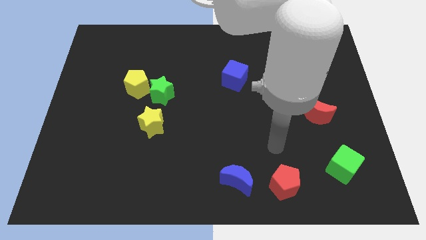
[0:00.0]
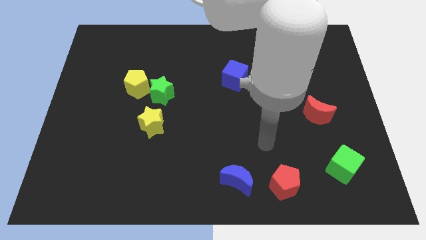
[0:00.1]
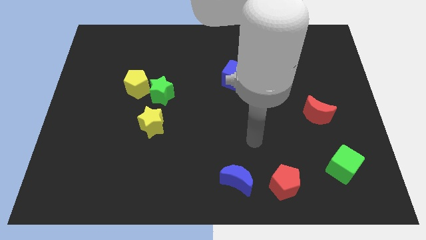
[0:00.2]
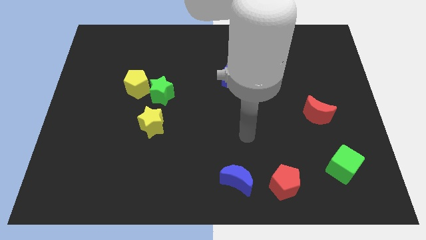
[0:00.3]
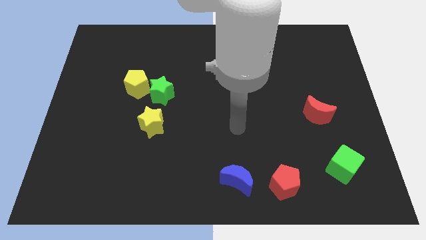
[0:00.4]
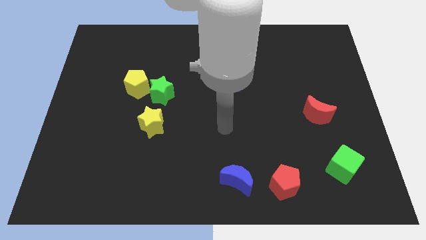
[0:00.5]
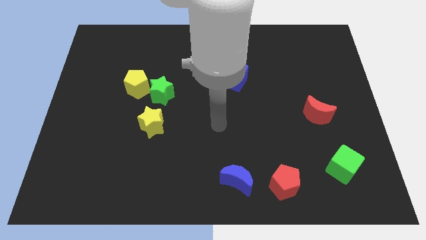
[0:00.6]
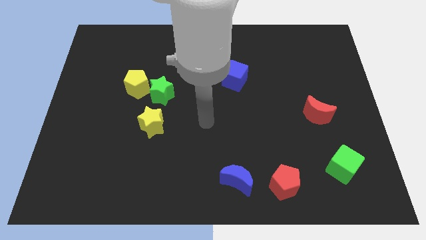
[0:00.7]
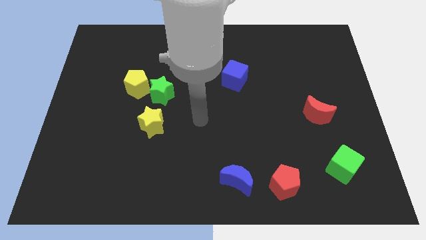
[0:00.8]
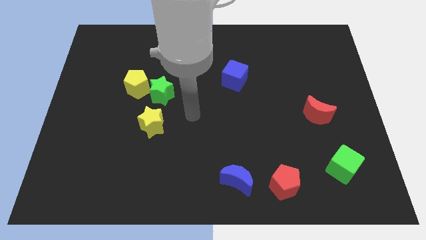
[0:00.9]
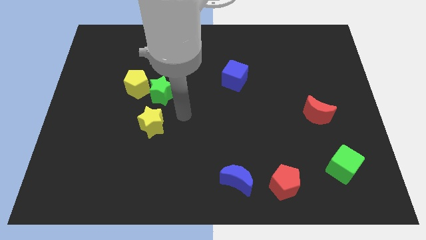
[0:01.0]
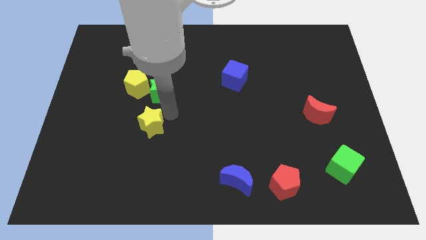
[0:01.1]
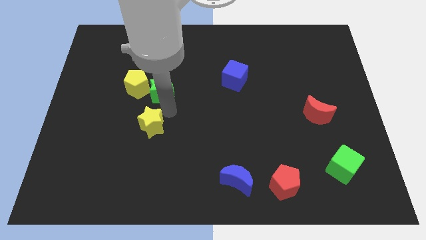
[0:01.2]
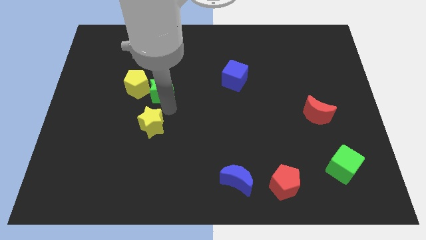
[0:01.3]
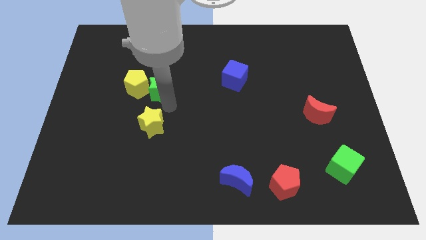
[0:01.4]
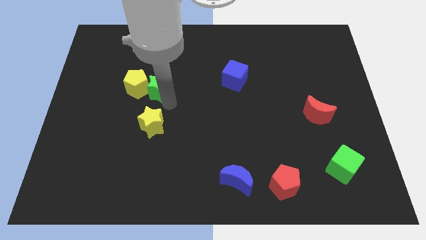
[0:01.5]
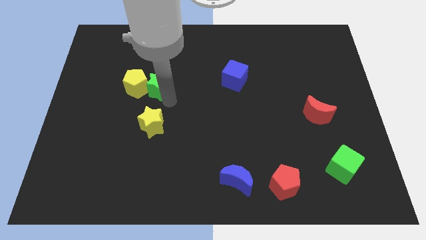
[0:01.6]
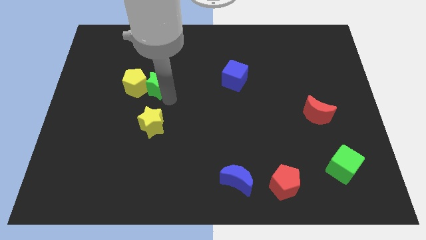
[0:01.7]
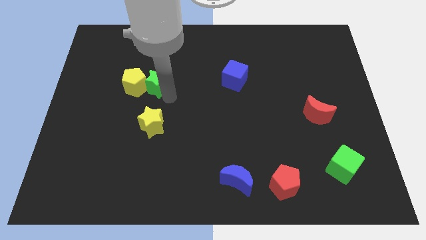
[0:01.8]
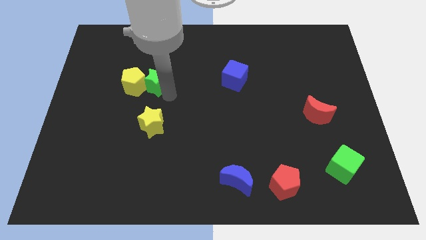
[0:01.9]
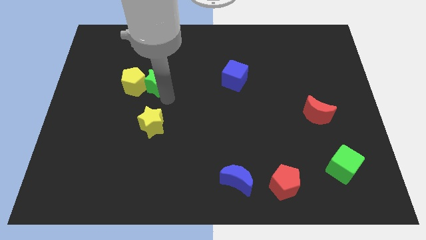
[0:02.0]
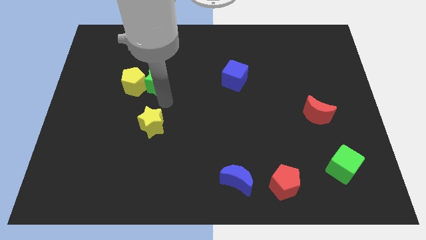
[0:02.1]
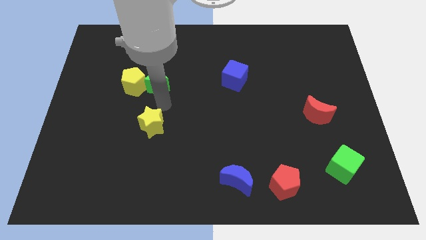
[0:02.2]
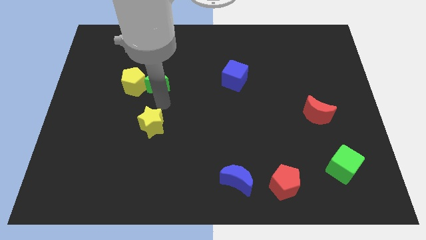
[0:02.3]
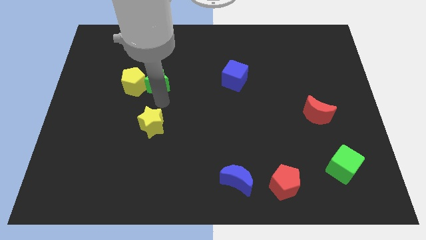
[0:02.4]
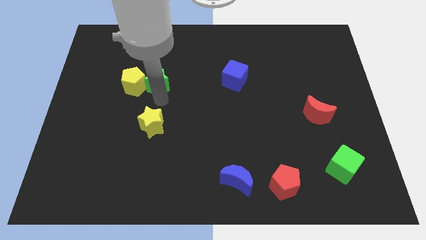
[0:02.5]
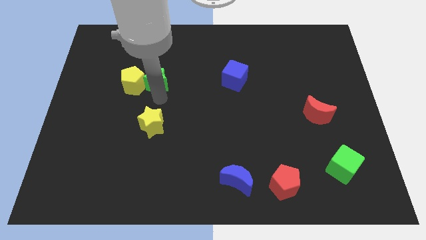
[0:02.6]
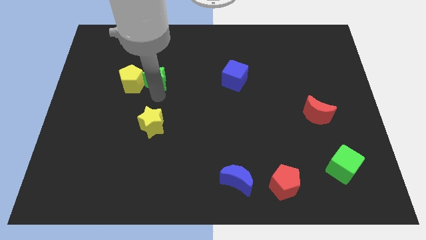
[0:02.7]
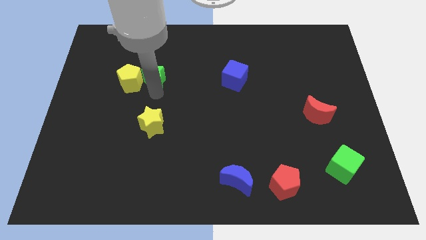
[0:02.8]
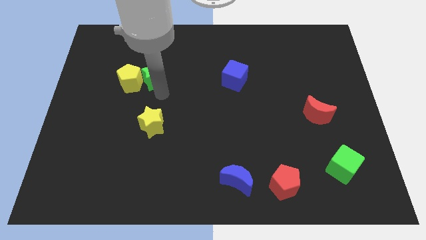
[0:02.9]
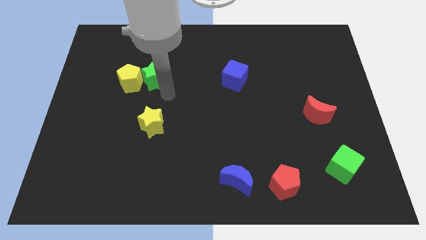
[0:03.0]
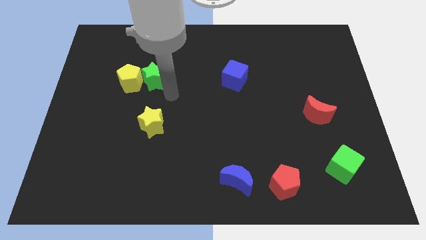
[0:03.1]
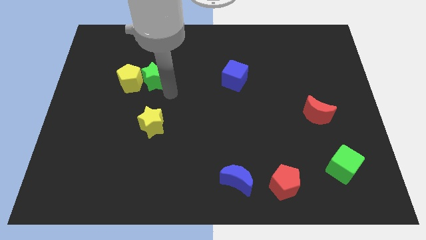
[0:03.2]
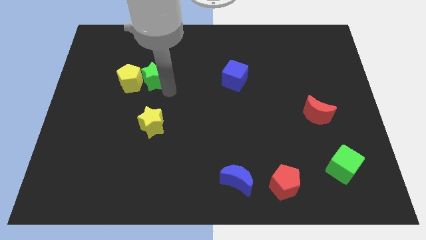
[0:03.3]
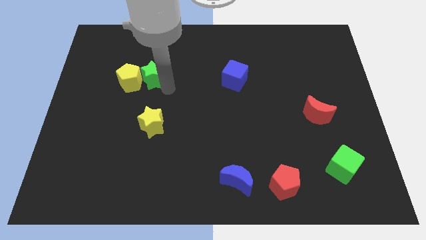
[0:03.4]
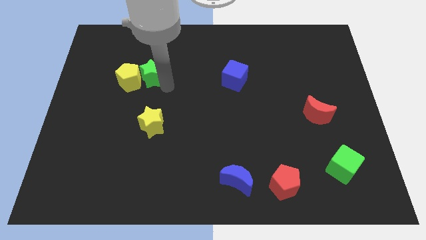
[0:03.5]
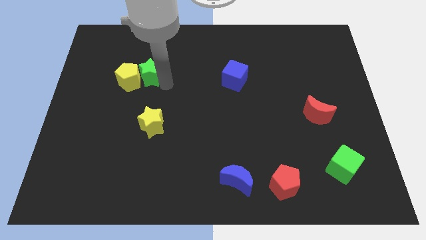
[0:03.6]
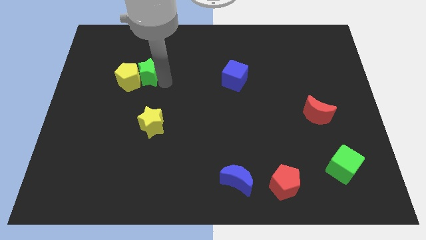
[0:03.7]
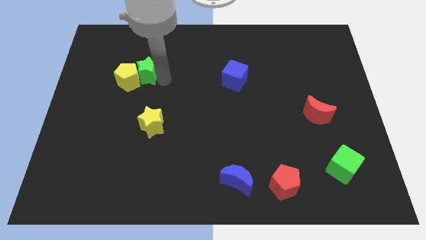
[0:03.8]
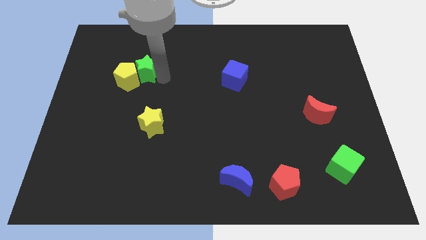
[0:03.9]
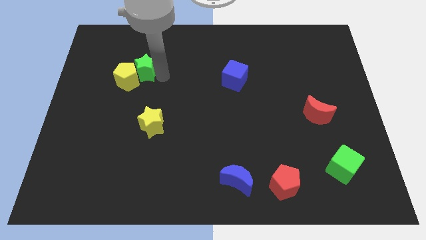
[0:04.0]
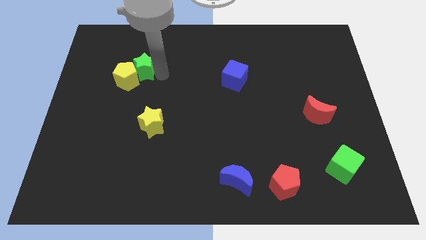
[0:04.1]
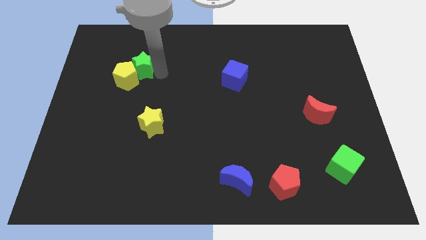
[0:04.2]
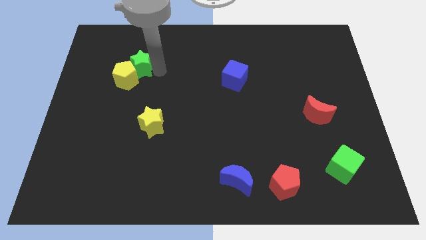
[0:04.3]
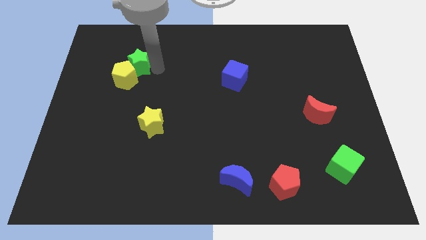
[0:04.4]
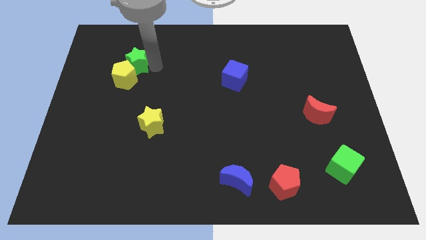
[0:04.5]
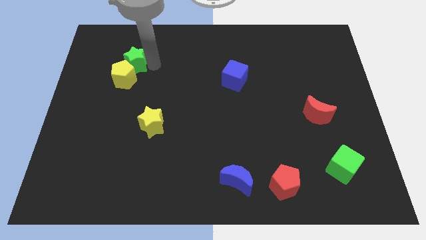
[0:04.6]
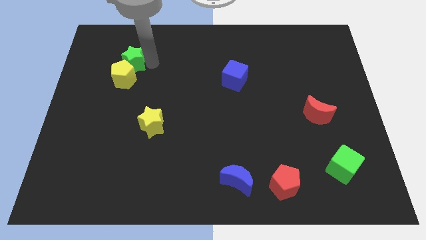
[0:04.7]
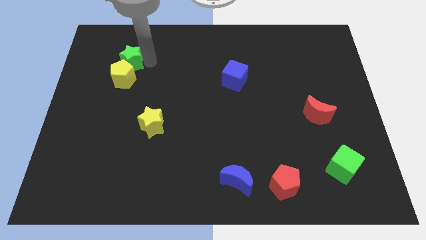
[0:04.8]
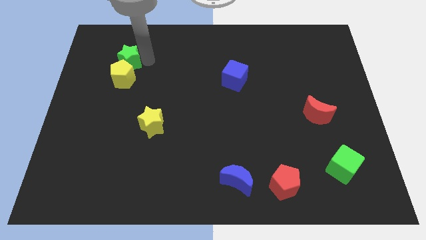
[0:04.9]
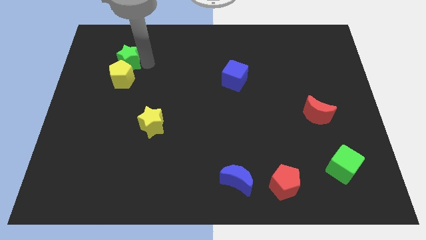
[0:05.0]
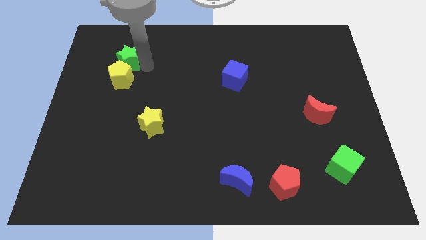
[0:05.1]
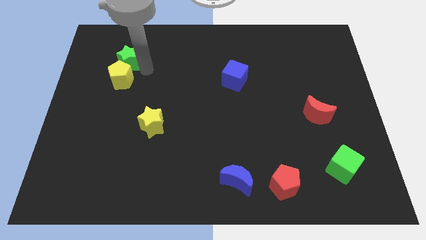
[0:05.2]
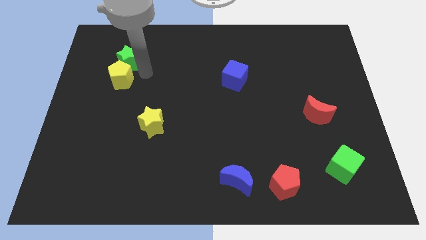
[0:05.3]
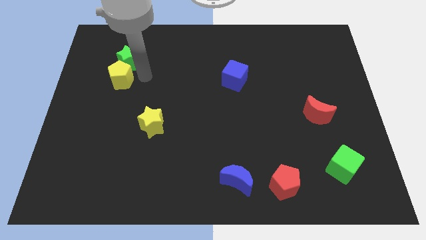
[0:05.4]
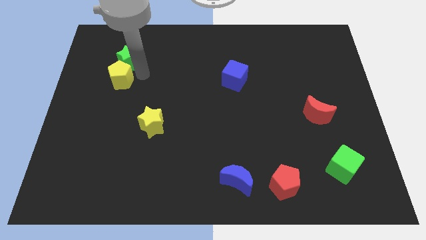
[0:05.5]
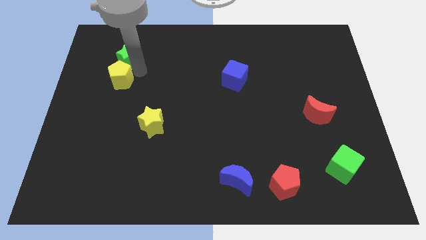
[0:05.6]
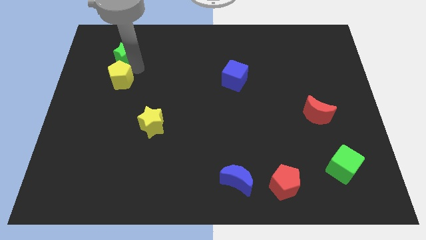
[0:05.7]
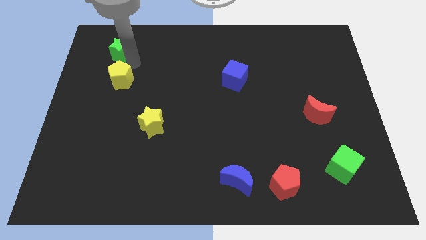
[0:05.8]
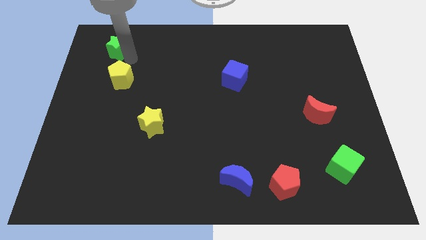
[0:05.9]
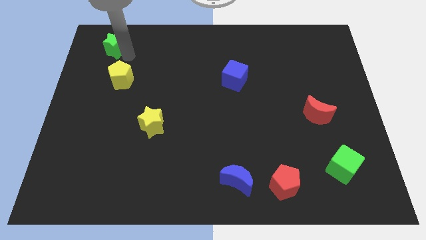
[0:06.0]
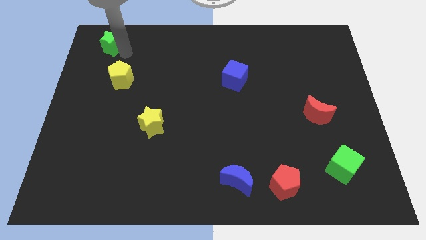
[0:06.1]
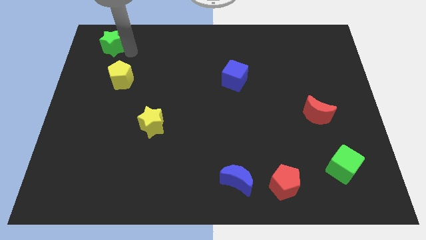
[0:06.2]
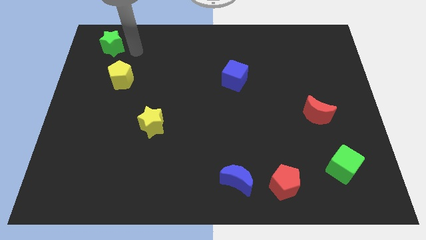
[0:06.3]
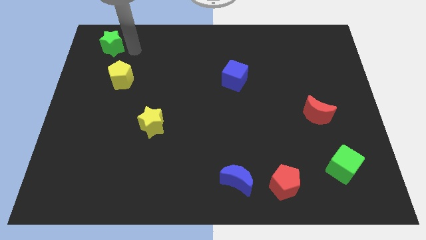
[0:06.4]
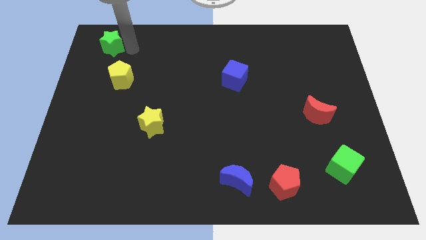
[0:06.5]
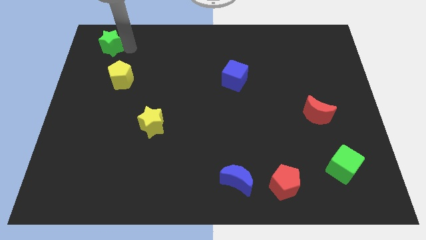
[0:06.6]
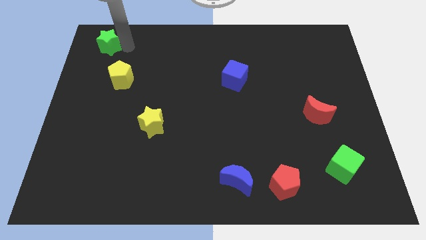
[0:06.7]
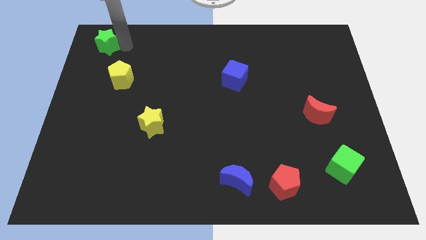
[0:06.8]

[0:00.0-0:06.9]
move the green star to the top left corner

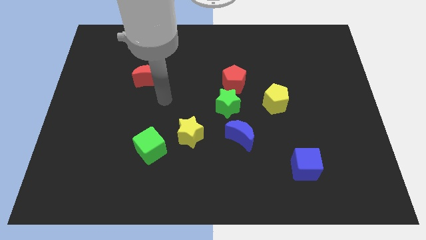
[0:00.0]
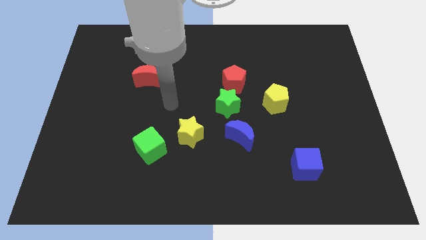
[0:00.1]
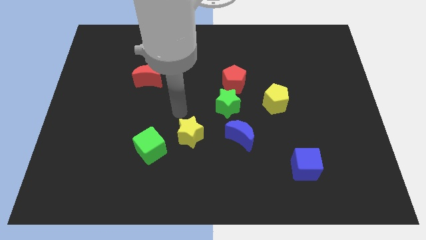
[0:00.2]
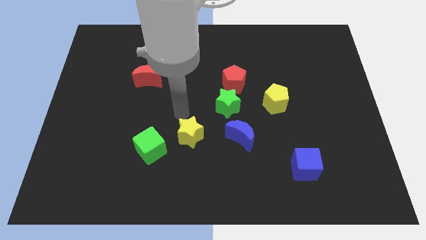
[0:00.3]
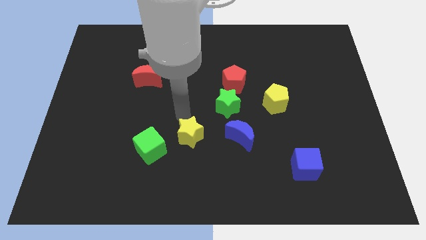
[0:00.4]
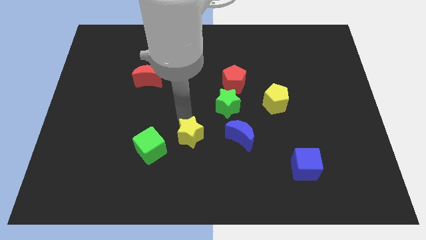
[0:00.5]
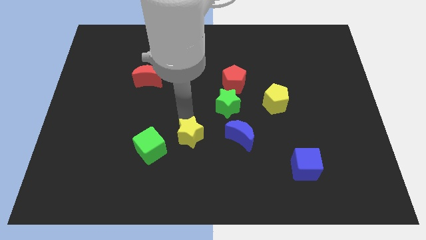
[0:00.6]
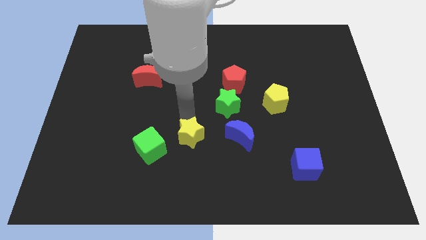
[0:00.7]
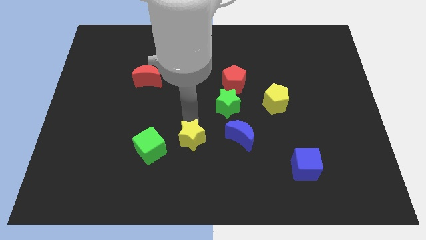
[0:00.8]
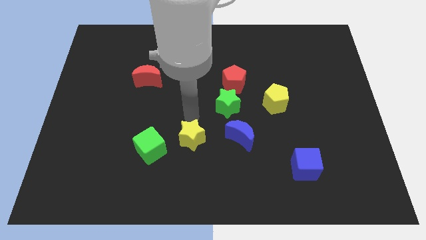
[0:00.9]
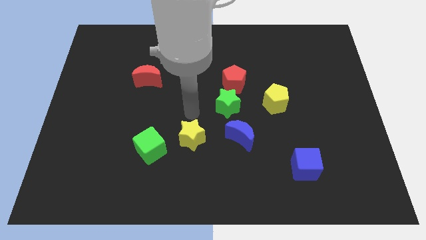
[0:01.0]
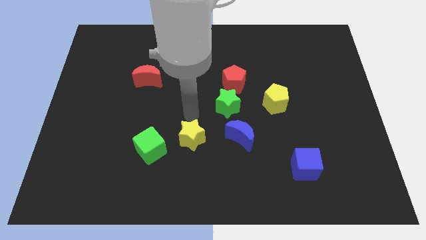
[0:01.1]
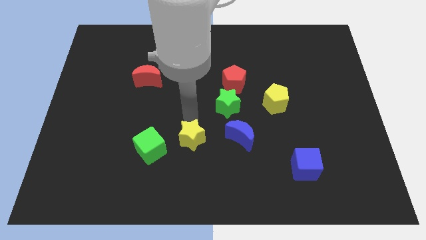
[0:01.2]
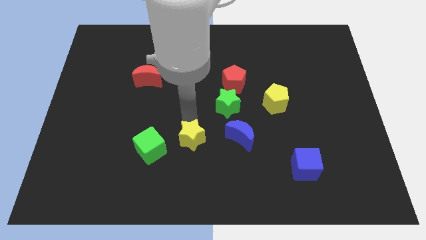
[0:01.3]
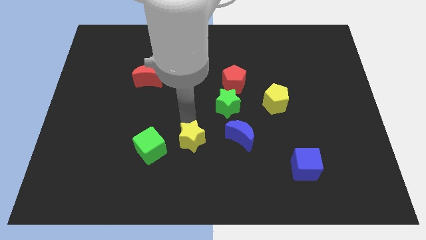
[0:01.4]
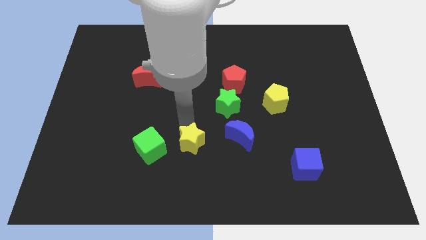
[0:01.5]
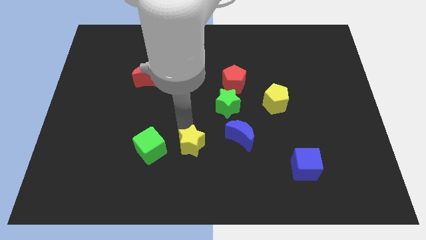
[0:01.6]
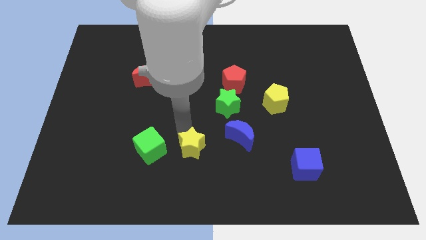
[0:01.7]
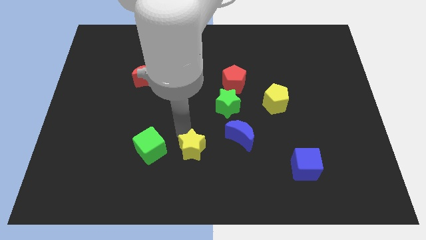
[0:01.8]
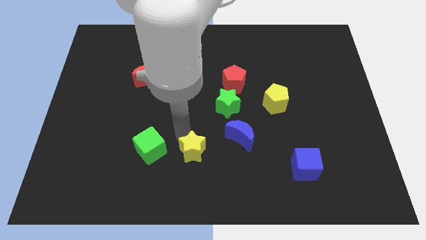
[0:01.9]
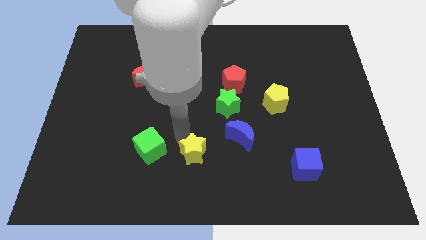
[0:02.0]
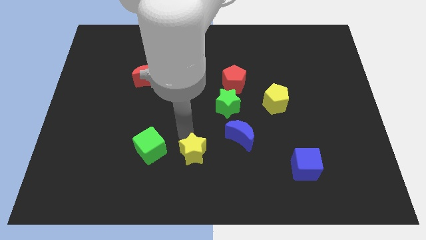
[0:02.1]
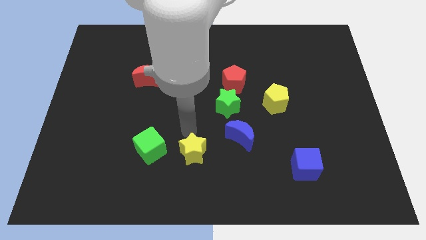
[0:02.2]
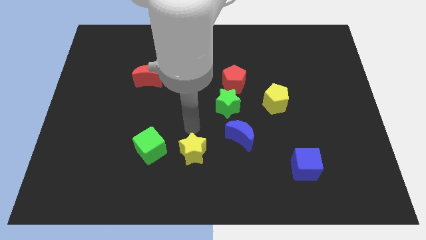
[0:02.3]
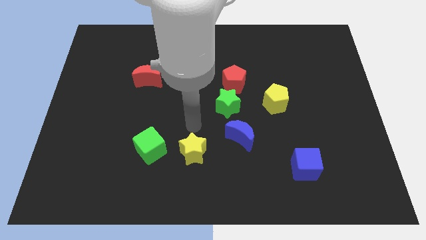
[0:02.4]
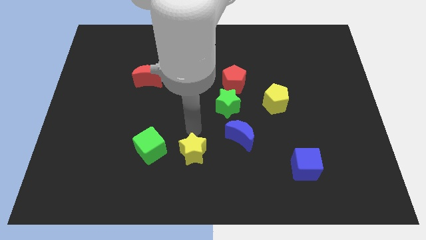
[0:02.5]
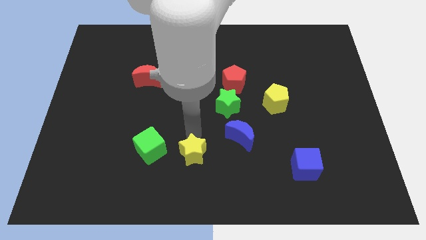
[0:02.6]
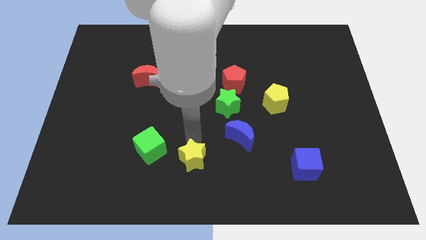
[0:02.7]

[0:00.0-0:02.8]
slide the yellow star to the bottom
